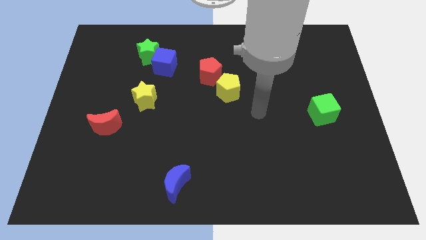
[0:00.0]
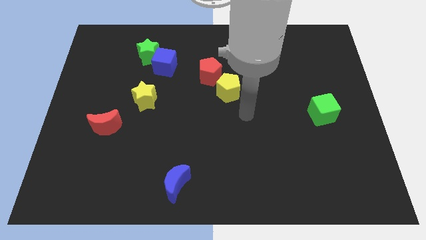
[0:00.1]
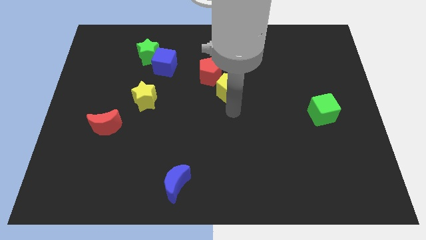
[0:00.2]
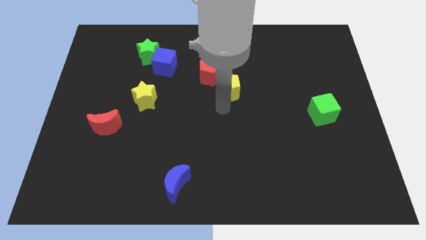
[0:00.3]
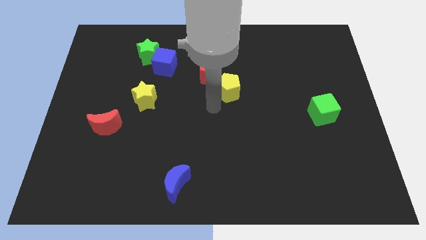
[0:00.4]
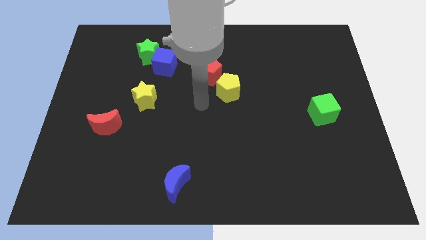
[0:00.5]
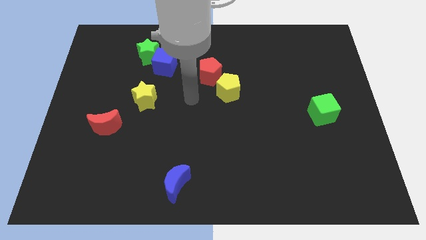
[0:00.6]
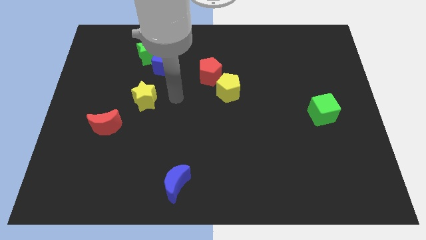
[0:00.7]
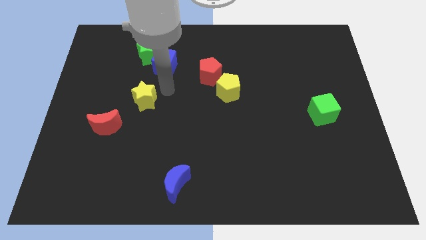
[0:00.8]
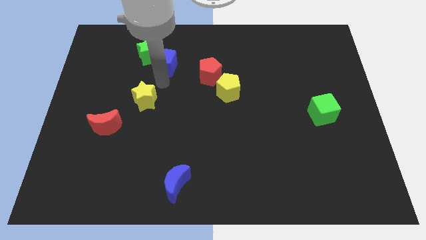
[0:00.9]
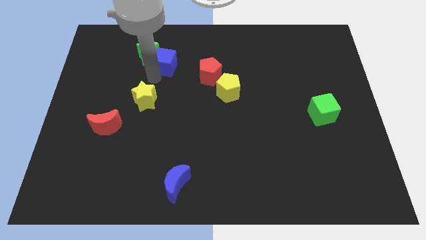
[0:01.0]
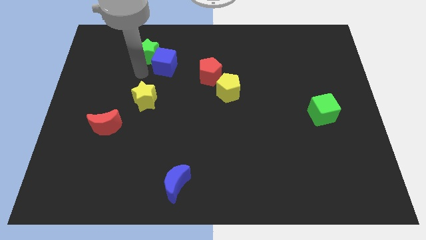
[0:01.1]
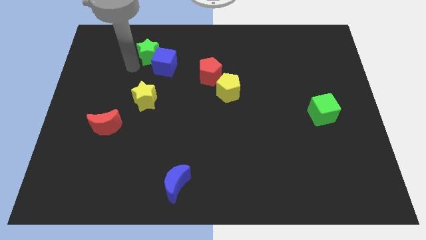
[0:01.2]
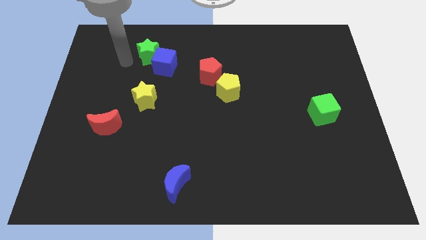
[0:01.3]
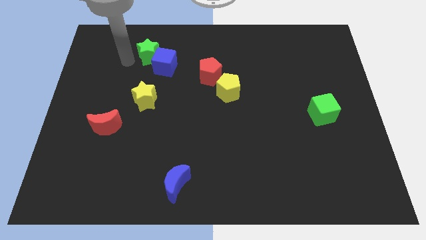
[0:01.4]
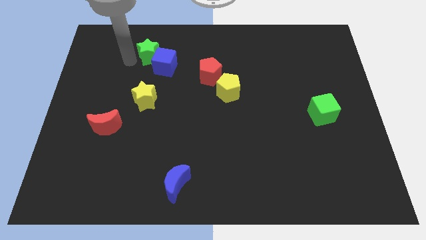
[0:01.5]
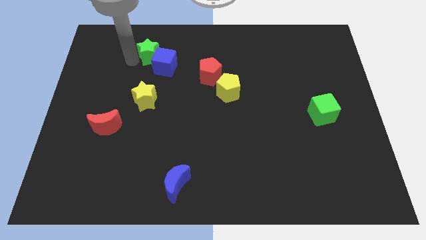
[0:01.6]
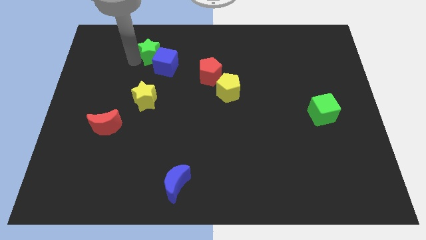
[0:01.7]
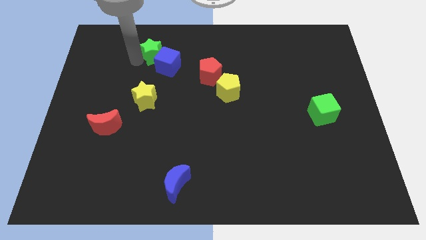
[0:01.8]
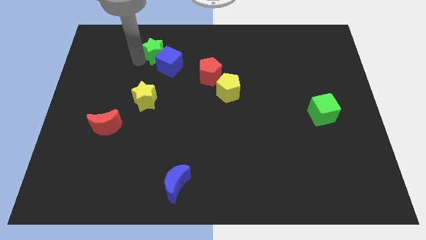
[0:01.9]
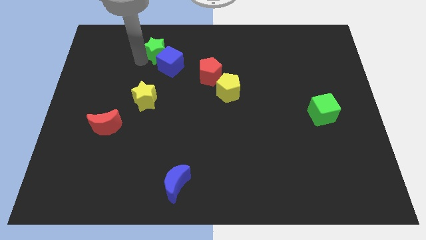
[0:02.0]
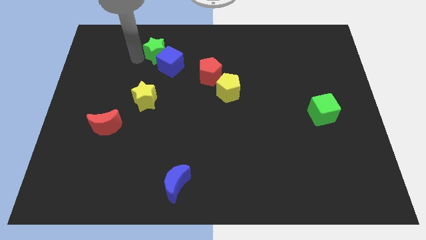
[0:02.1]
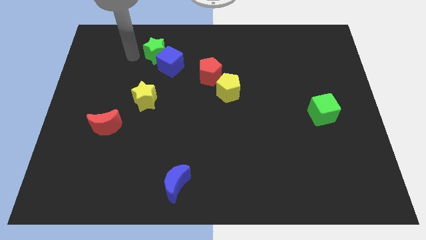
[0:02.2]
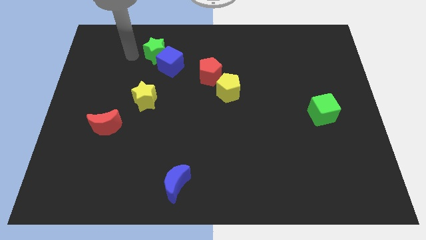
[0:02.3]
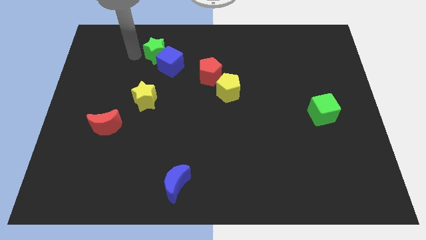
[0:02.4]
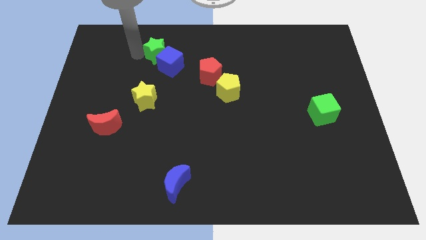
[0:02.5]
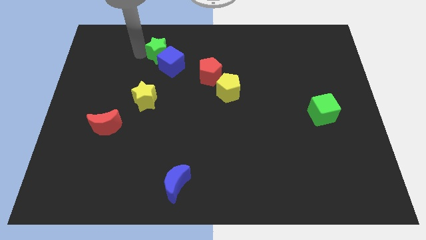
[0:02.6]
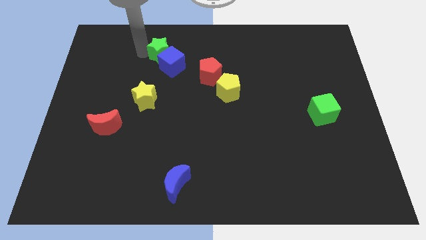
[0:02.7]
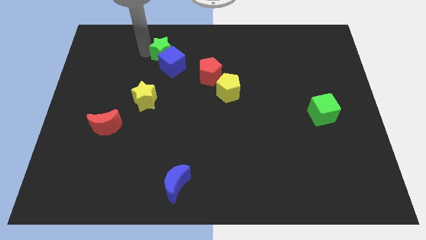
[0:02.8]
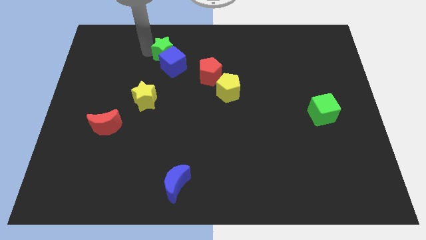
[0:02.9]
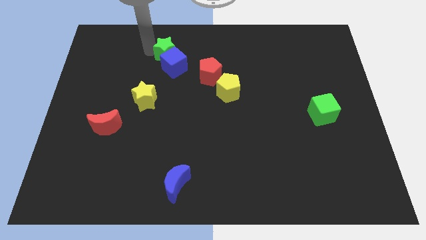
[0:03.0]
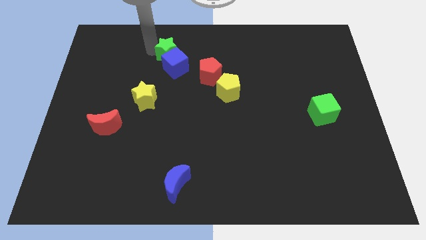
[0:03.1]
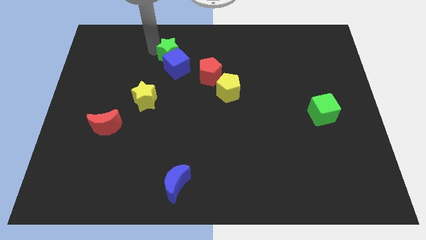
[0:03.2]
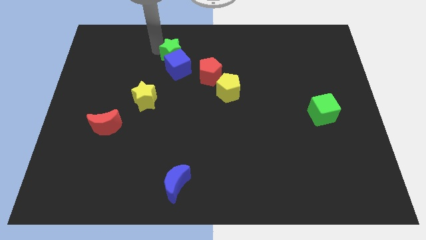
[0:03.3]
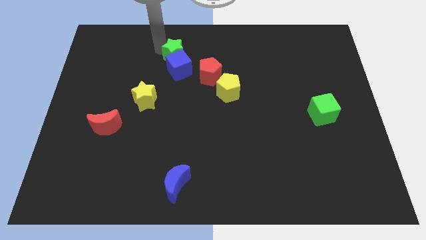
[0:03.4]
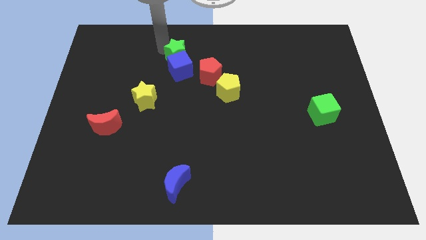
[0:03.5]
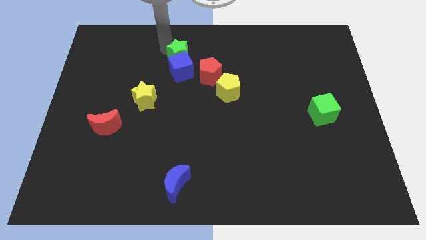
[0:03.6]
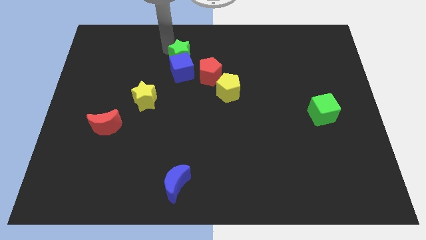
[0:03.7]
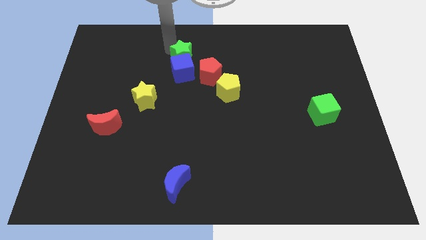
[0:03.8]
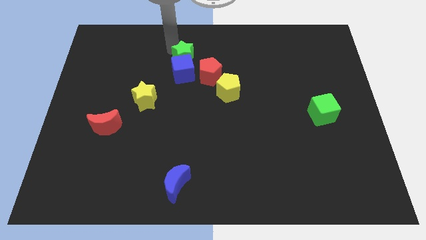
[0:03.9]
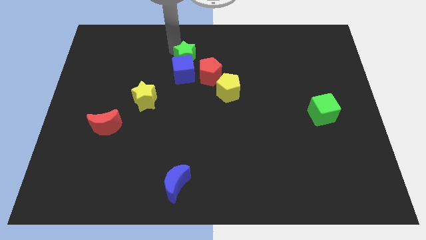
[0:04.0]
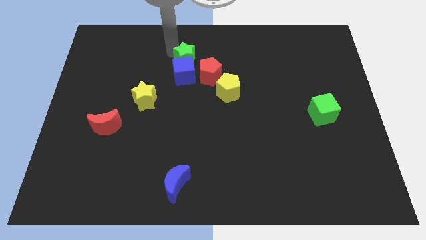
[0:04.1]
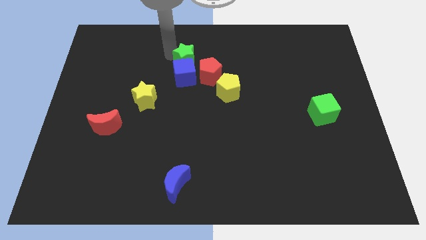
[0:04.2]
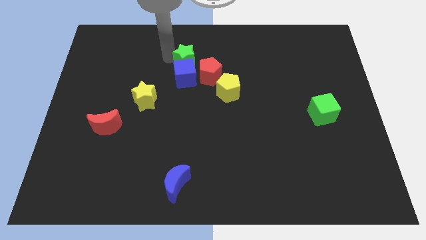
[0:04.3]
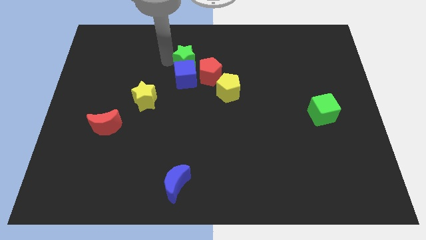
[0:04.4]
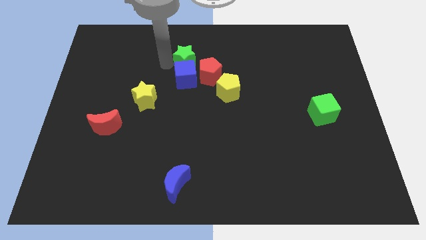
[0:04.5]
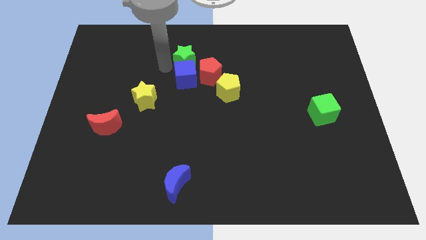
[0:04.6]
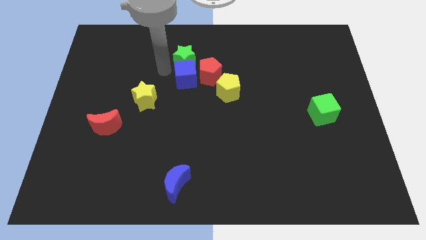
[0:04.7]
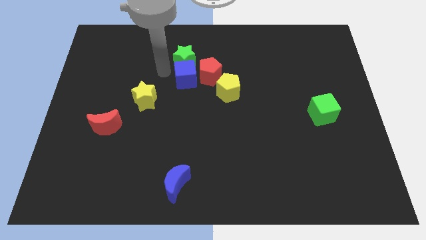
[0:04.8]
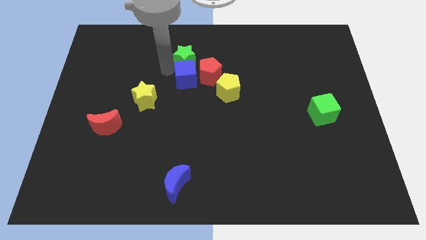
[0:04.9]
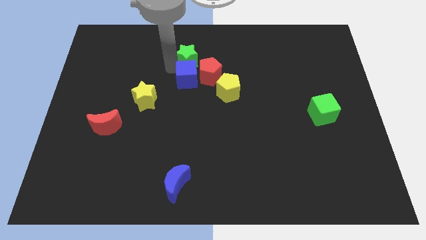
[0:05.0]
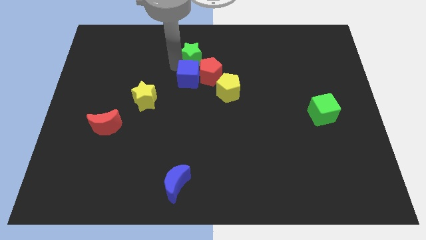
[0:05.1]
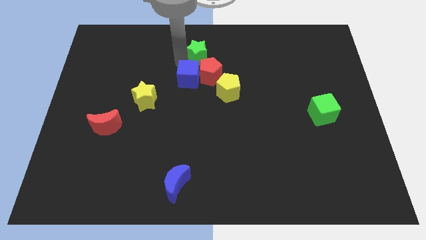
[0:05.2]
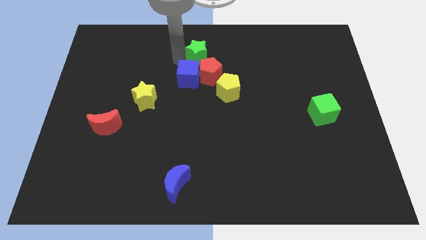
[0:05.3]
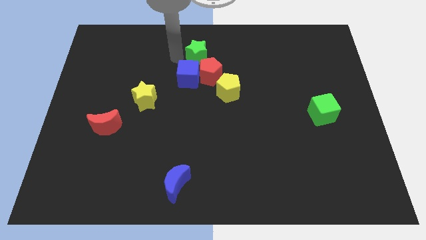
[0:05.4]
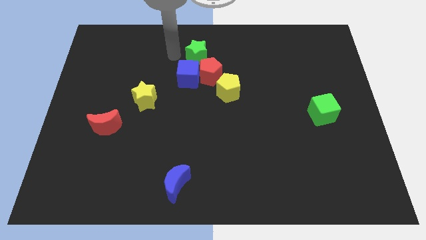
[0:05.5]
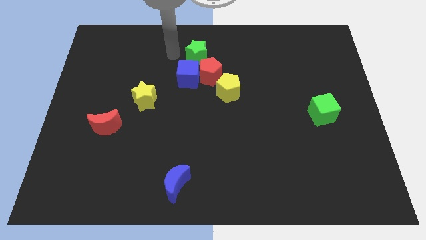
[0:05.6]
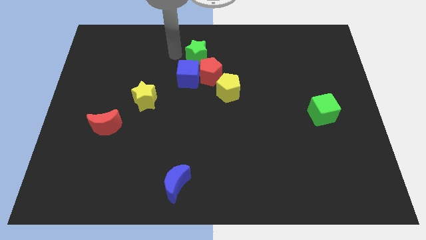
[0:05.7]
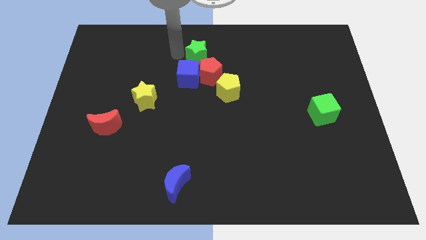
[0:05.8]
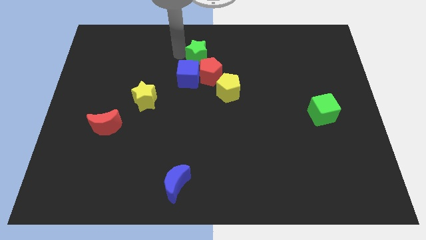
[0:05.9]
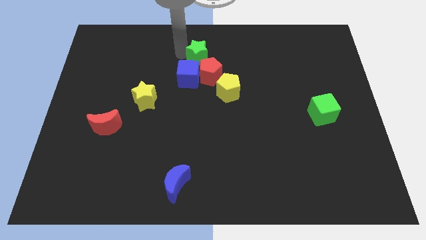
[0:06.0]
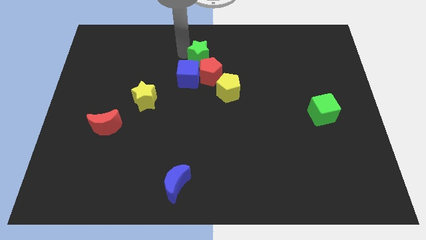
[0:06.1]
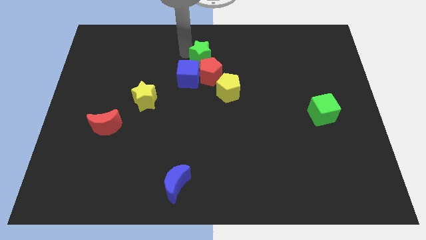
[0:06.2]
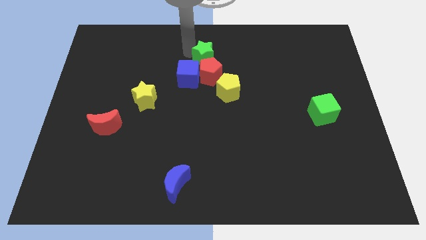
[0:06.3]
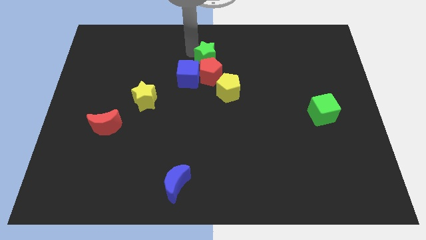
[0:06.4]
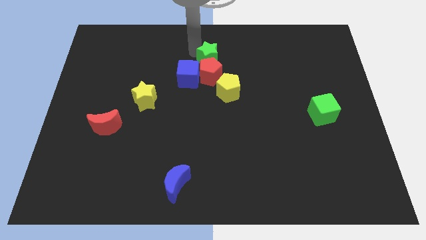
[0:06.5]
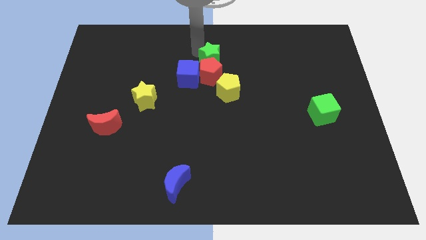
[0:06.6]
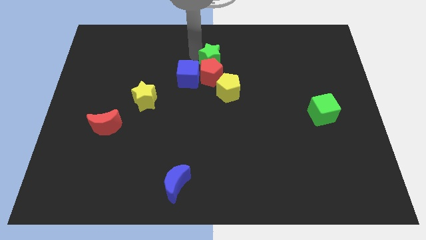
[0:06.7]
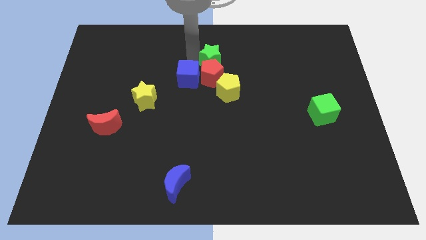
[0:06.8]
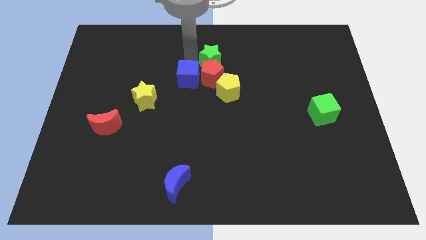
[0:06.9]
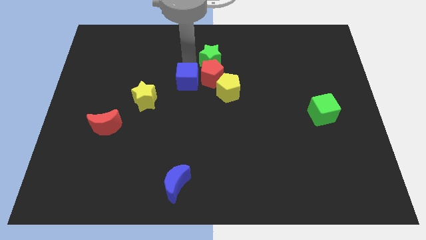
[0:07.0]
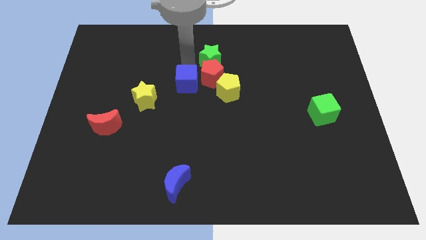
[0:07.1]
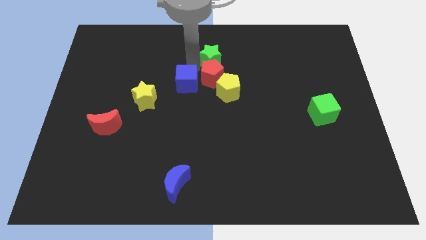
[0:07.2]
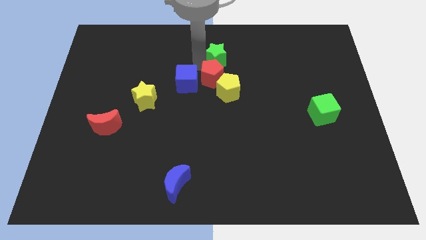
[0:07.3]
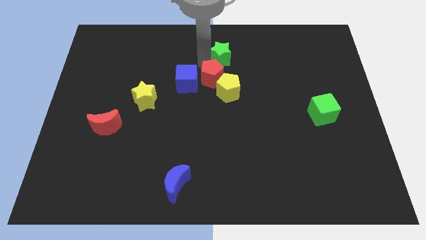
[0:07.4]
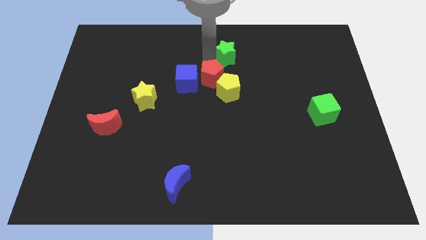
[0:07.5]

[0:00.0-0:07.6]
move the green star to the right

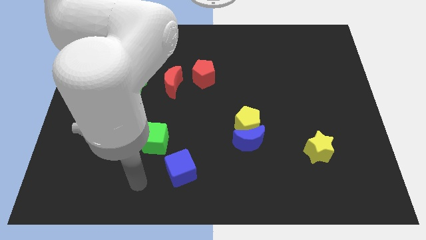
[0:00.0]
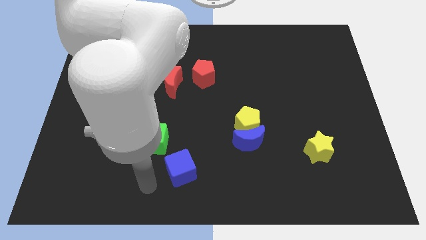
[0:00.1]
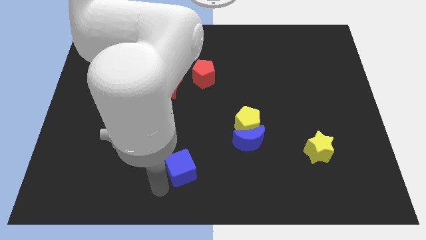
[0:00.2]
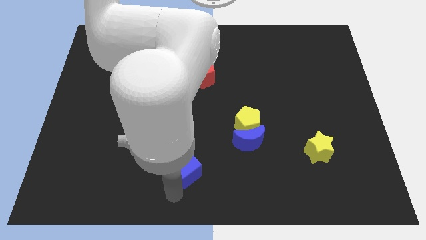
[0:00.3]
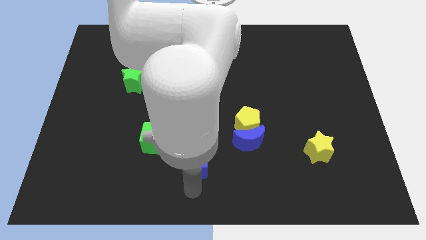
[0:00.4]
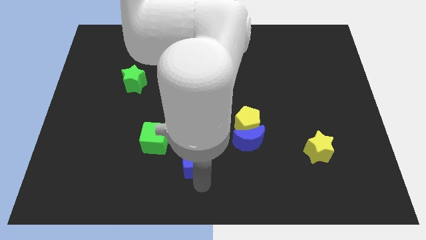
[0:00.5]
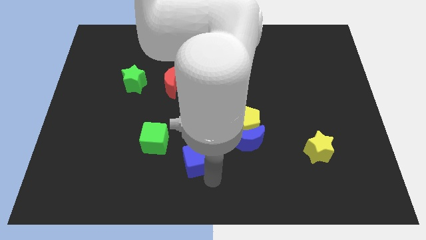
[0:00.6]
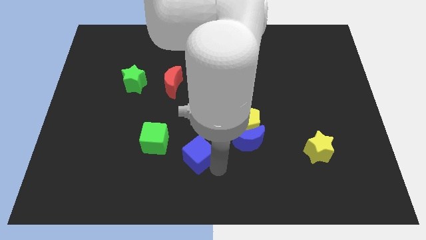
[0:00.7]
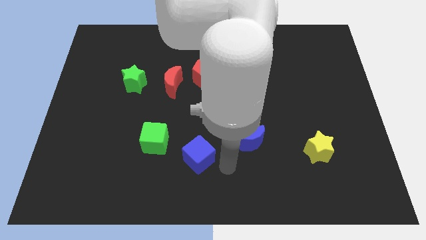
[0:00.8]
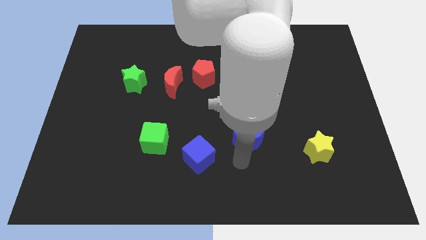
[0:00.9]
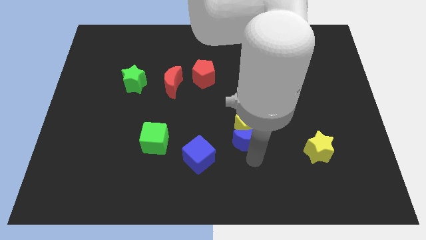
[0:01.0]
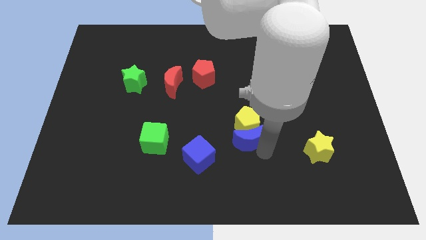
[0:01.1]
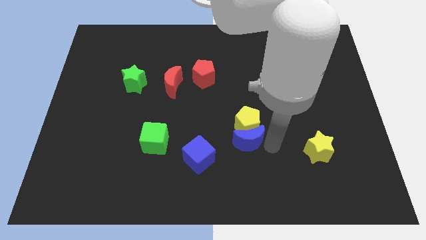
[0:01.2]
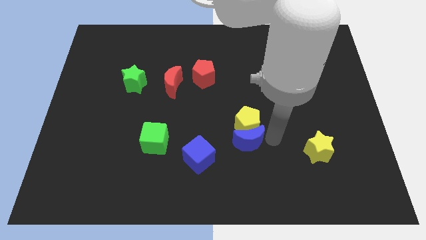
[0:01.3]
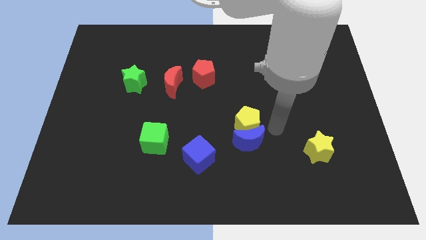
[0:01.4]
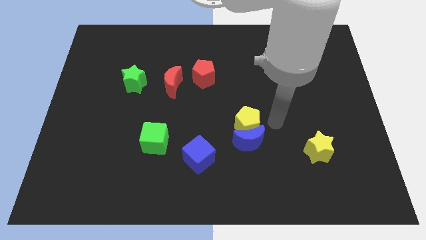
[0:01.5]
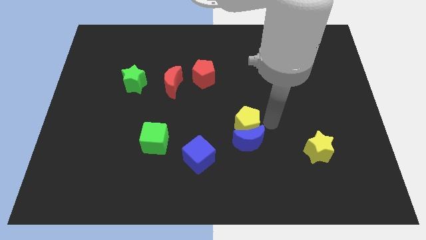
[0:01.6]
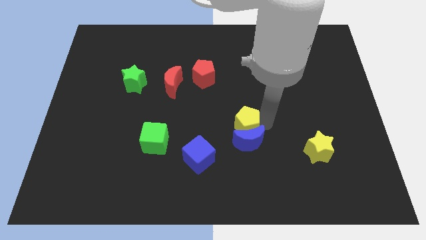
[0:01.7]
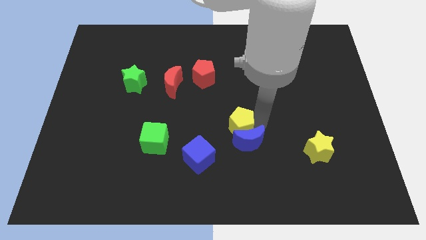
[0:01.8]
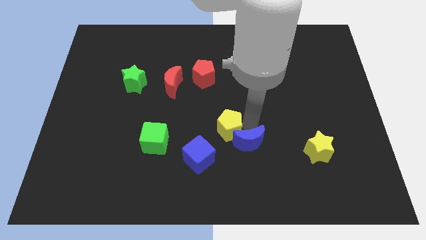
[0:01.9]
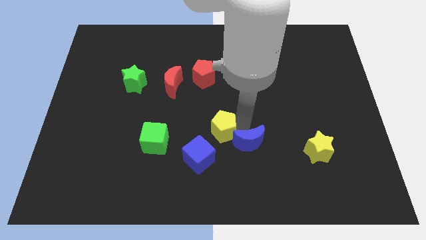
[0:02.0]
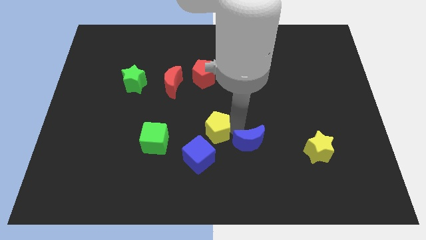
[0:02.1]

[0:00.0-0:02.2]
move the yellow pentagon left a little
